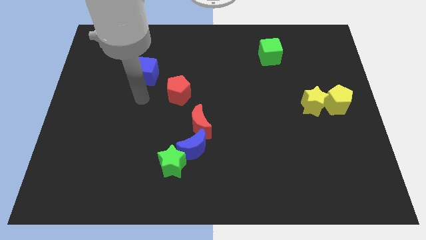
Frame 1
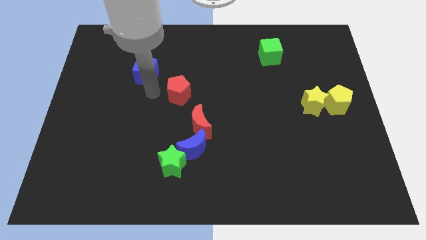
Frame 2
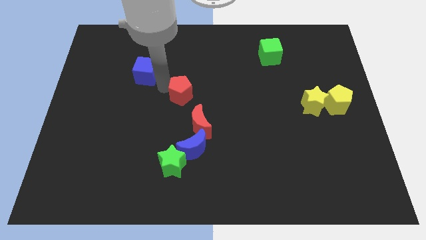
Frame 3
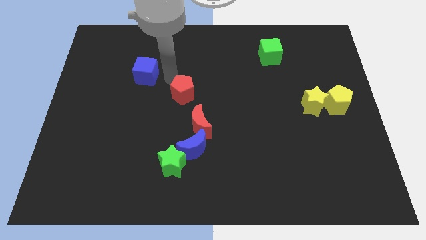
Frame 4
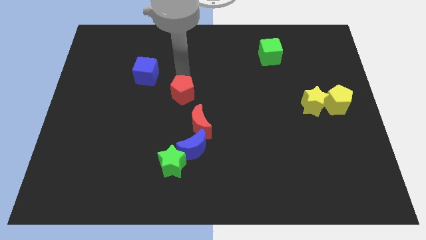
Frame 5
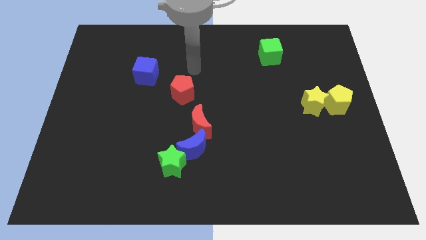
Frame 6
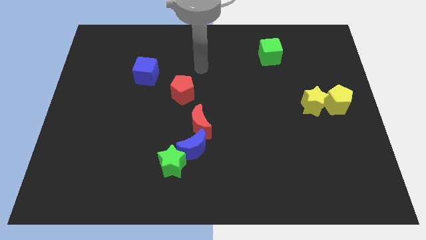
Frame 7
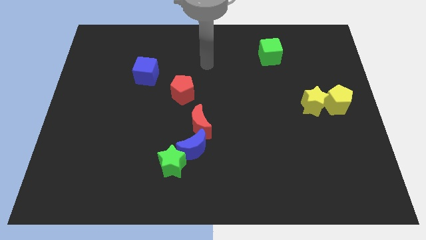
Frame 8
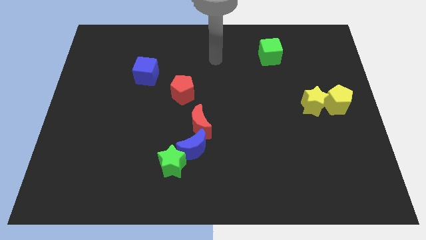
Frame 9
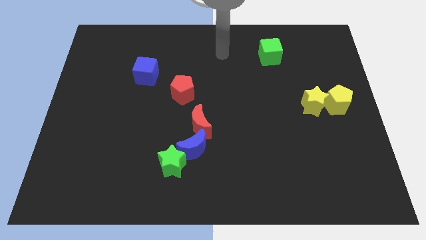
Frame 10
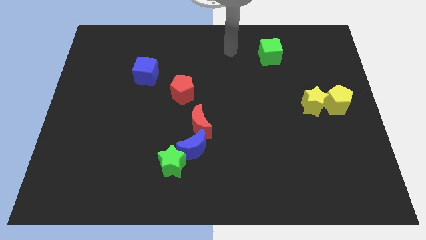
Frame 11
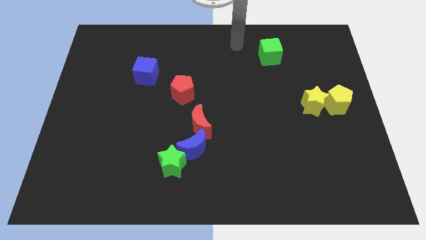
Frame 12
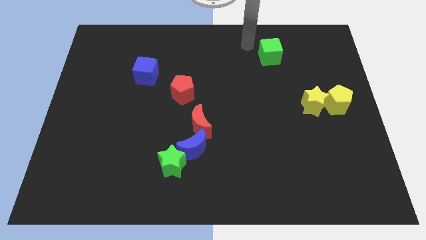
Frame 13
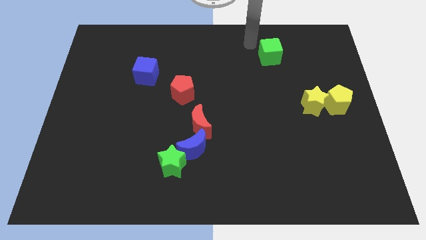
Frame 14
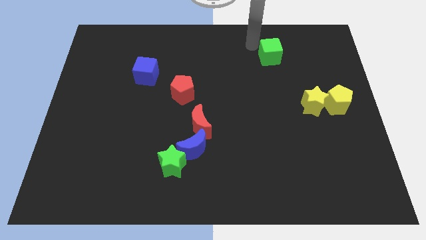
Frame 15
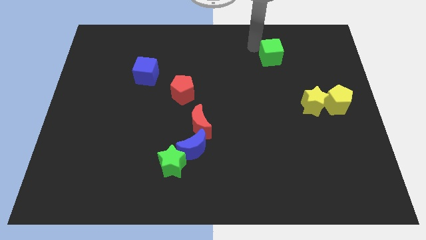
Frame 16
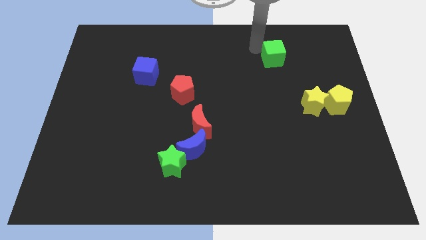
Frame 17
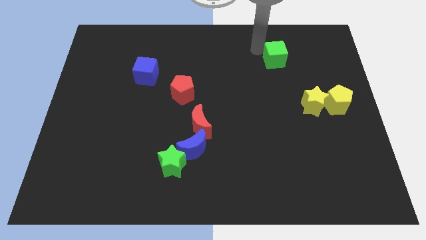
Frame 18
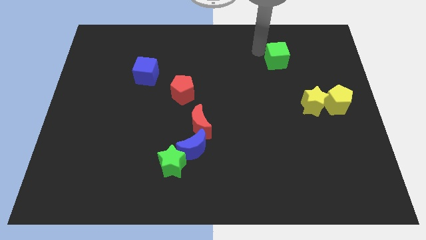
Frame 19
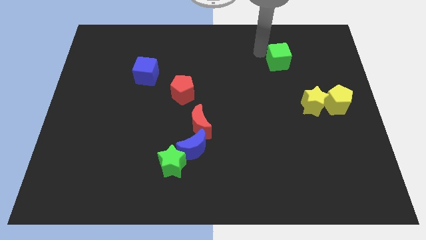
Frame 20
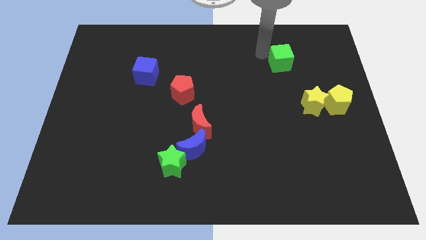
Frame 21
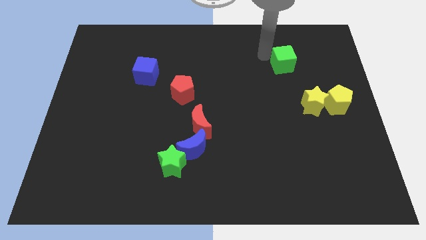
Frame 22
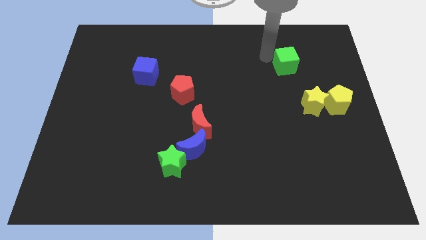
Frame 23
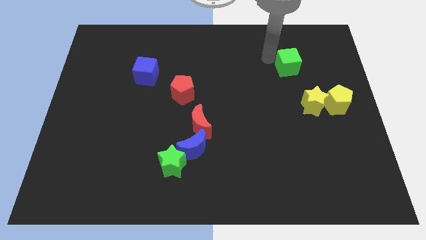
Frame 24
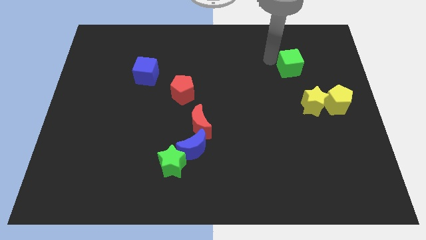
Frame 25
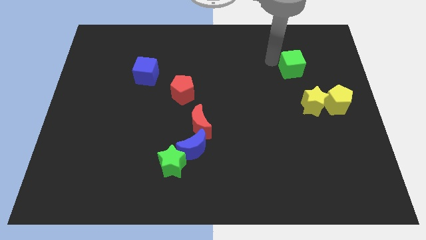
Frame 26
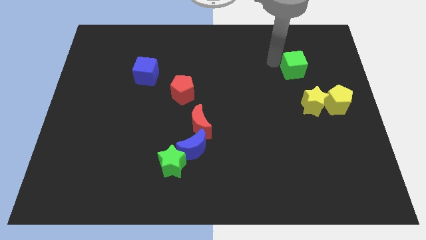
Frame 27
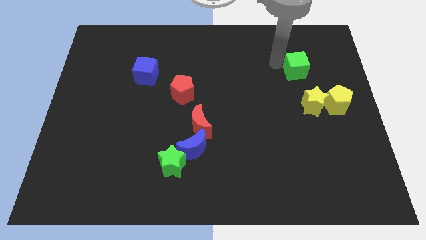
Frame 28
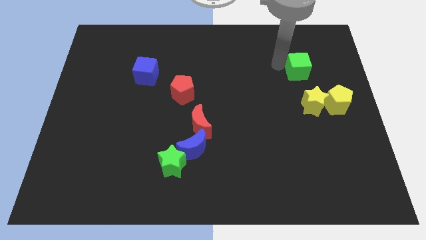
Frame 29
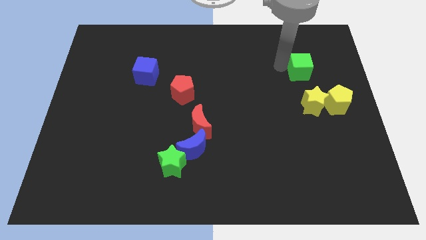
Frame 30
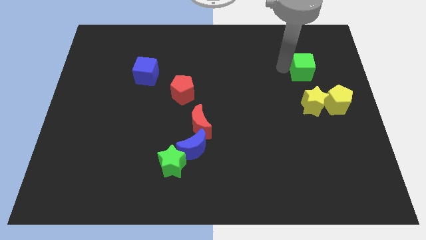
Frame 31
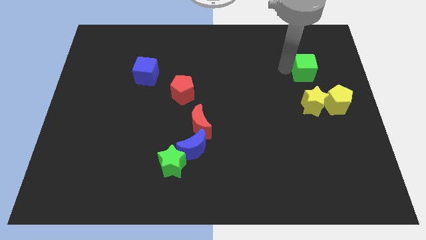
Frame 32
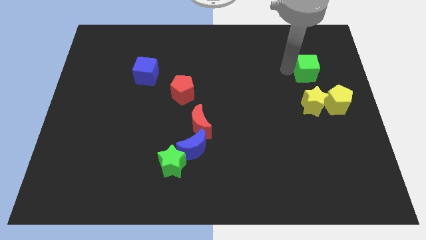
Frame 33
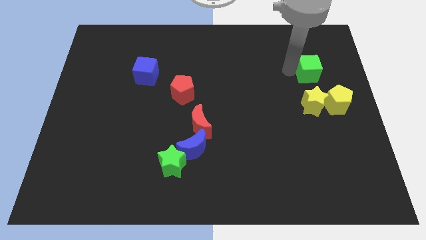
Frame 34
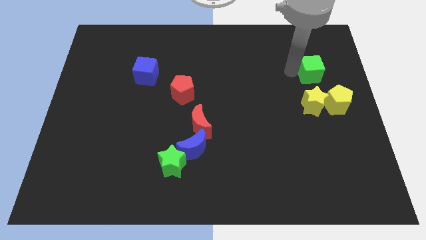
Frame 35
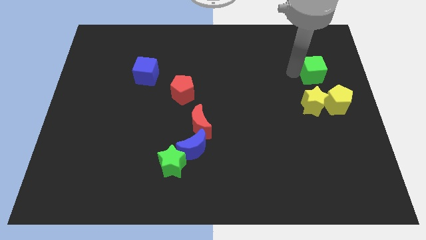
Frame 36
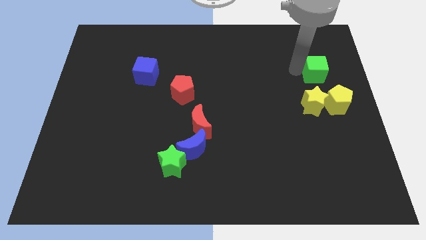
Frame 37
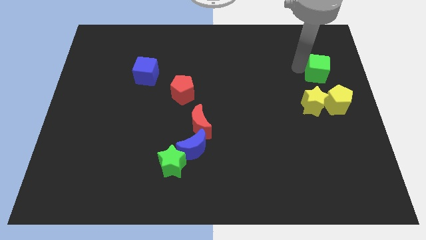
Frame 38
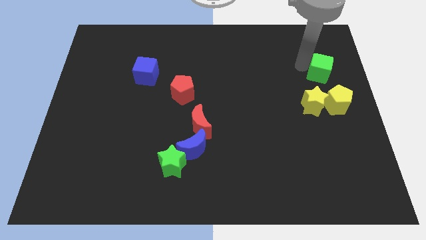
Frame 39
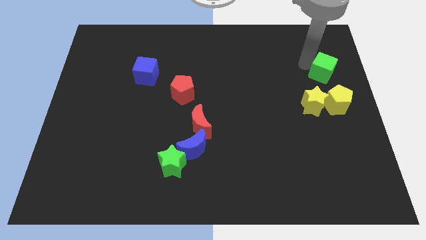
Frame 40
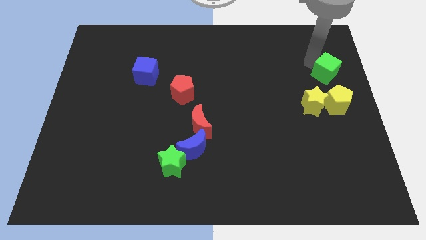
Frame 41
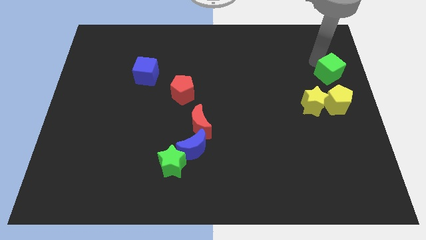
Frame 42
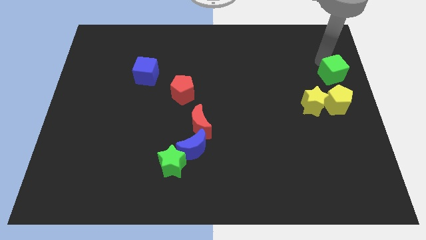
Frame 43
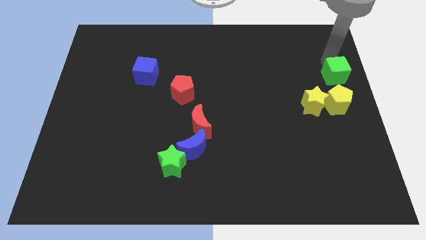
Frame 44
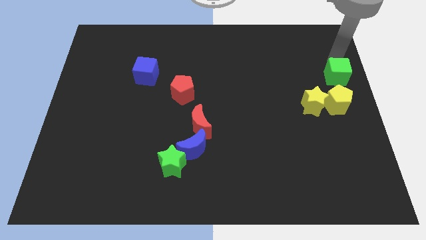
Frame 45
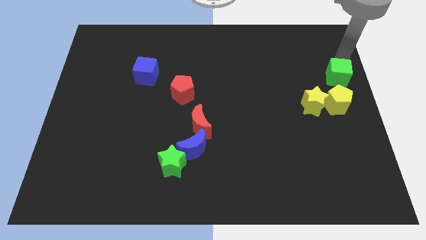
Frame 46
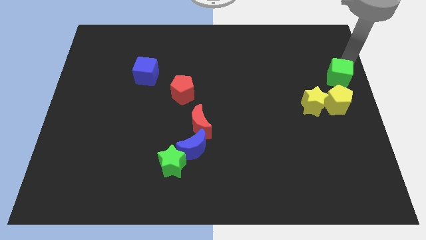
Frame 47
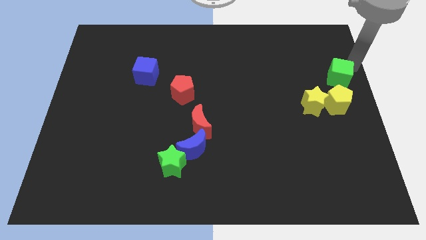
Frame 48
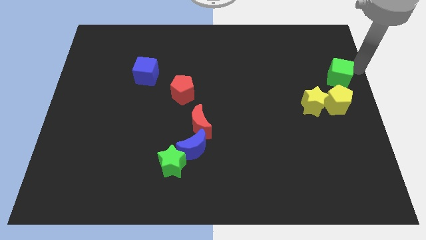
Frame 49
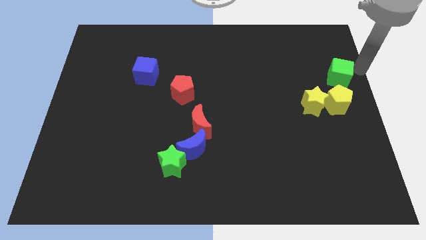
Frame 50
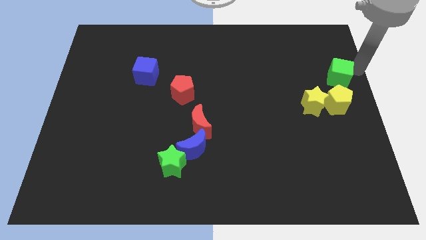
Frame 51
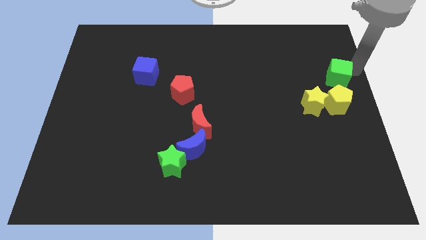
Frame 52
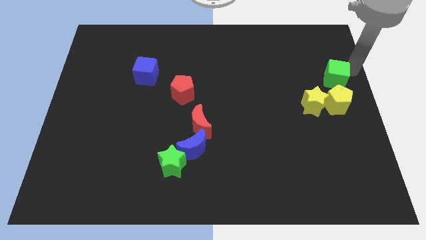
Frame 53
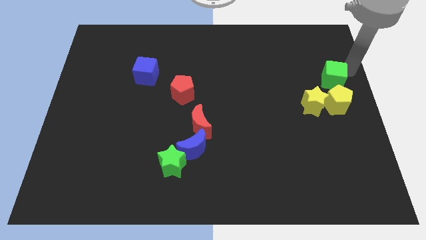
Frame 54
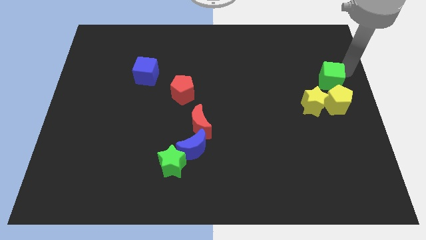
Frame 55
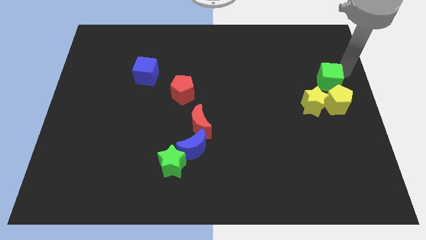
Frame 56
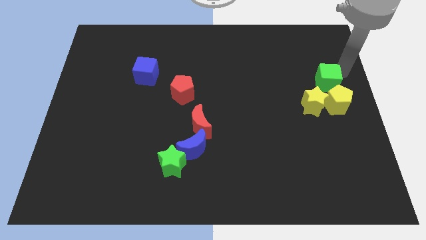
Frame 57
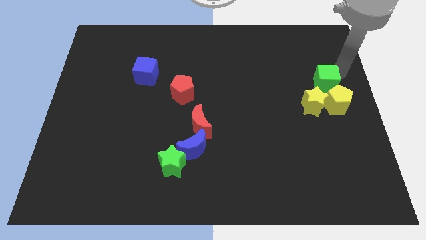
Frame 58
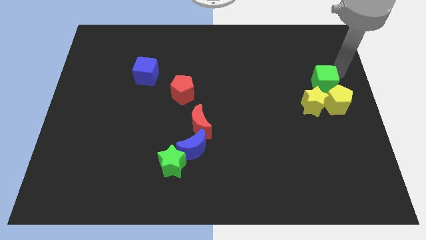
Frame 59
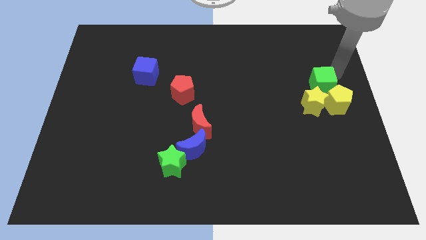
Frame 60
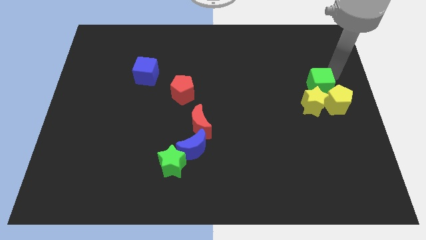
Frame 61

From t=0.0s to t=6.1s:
slide the green cube close to the yellow pentagon

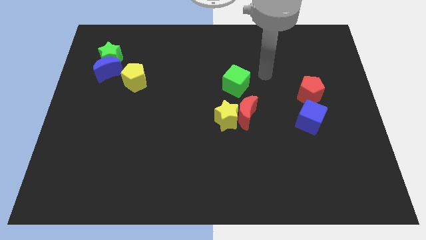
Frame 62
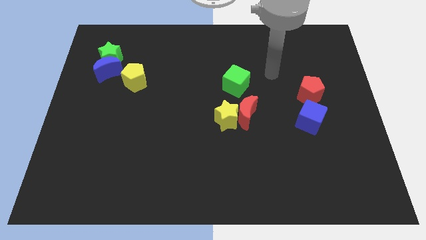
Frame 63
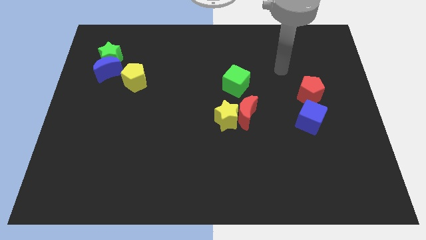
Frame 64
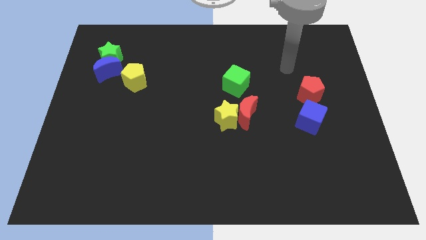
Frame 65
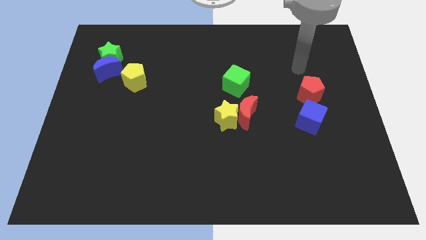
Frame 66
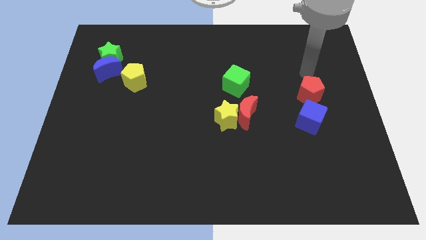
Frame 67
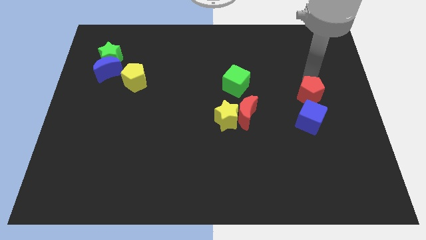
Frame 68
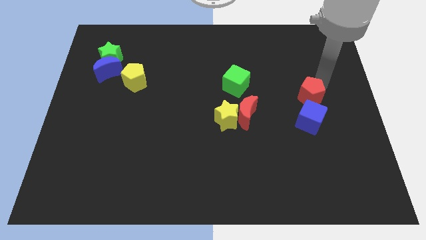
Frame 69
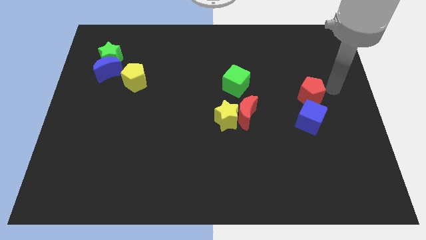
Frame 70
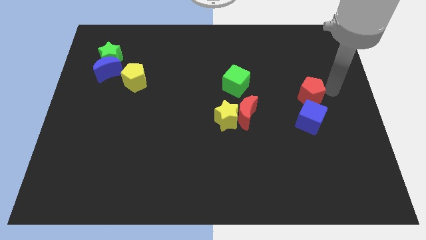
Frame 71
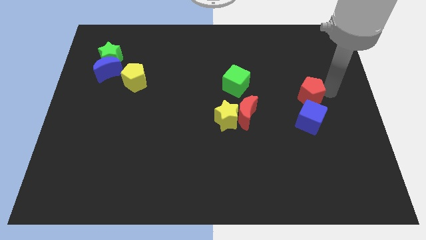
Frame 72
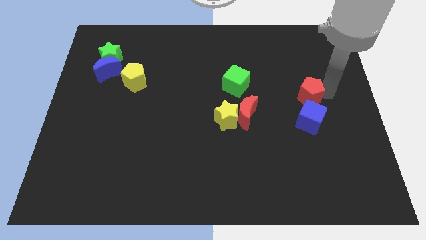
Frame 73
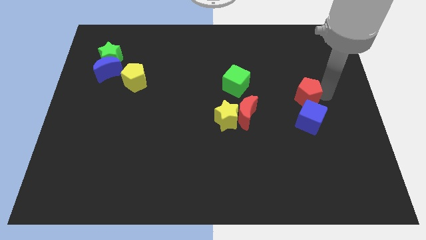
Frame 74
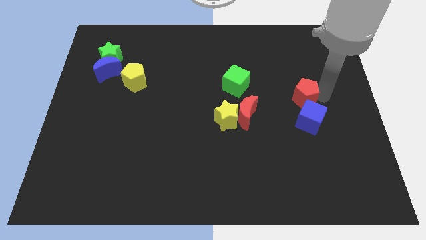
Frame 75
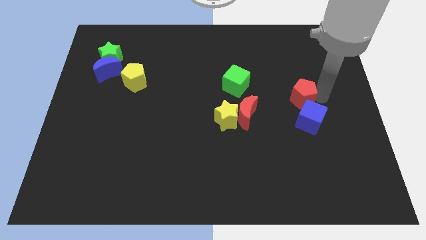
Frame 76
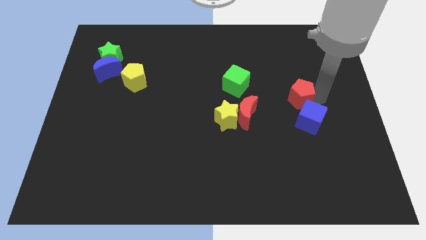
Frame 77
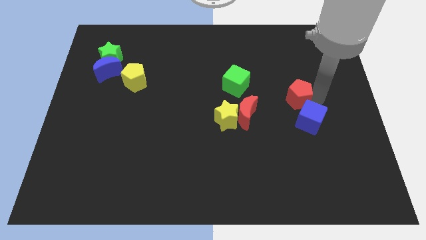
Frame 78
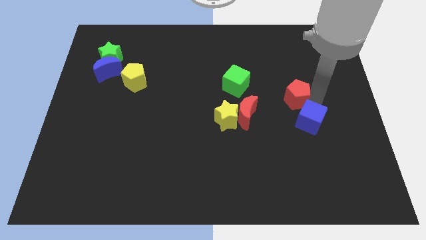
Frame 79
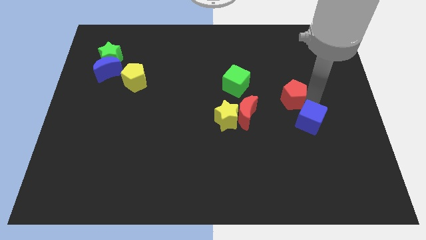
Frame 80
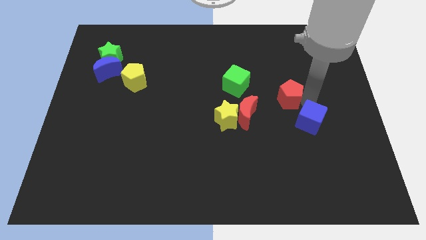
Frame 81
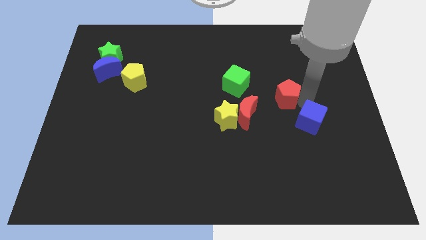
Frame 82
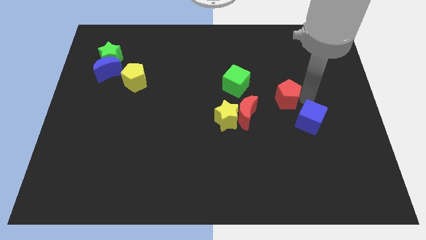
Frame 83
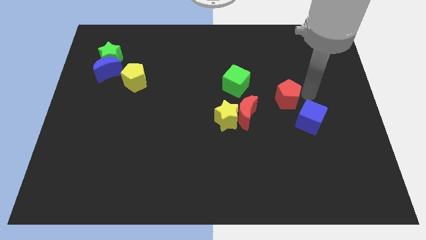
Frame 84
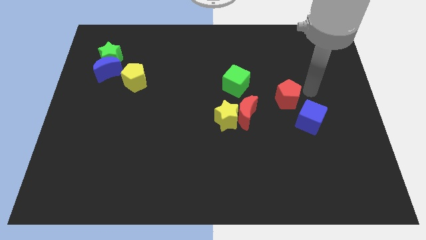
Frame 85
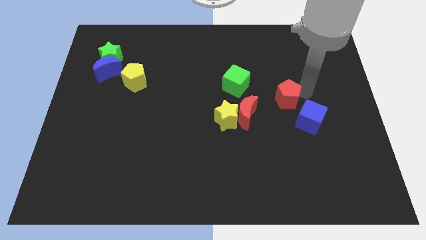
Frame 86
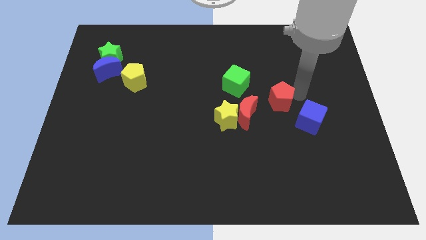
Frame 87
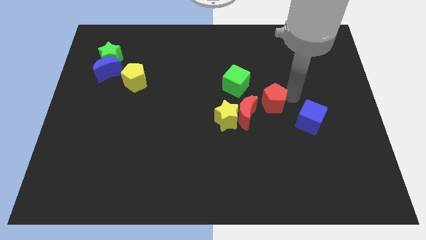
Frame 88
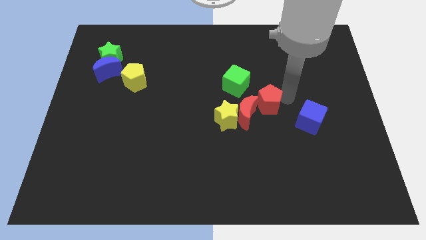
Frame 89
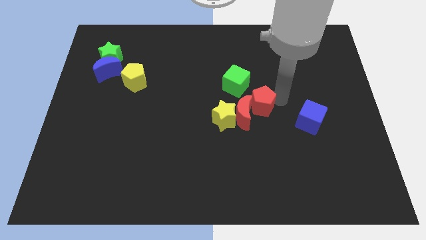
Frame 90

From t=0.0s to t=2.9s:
put the red pentagon next to the red moon
